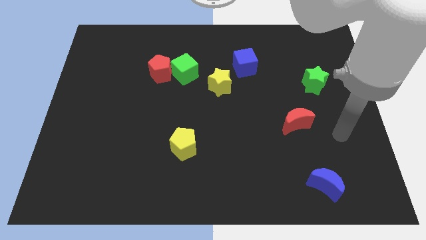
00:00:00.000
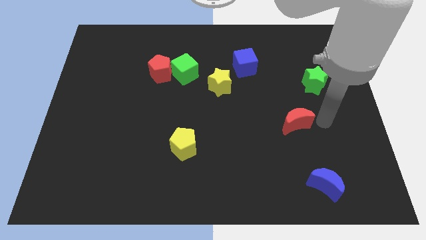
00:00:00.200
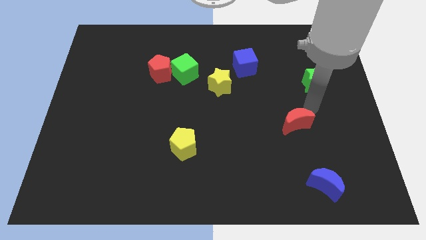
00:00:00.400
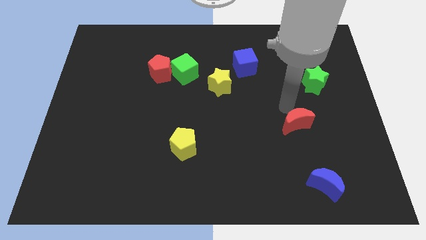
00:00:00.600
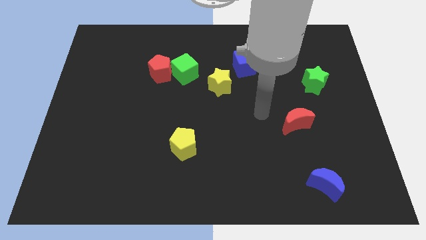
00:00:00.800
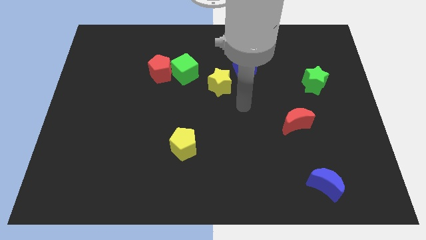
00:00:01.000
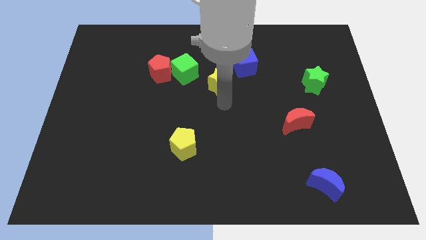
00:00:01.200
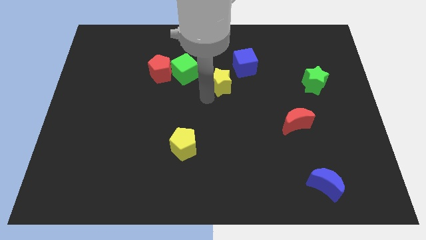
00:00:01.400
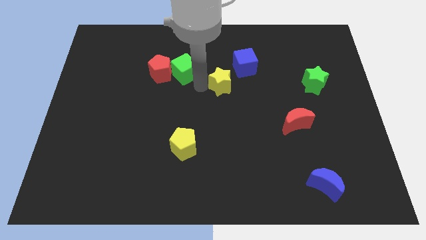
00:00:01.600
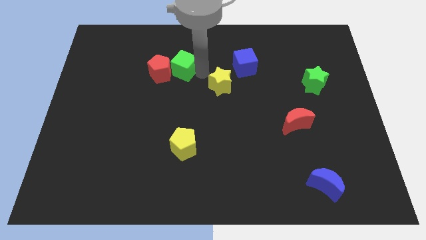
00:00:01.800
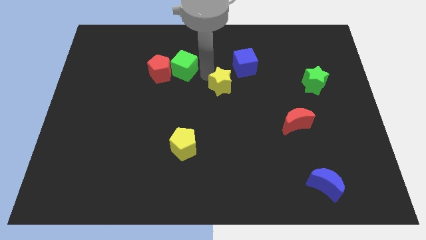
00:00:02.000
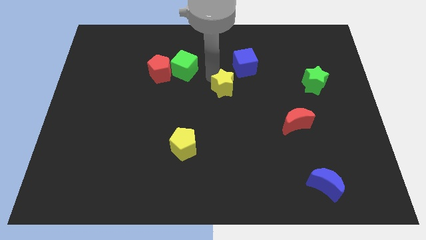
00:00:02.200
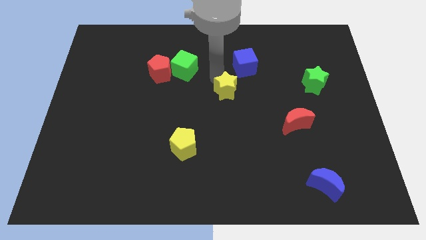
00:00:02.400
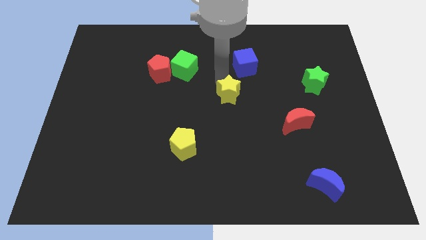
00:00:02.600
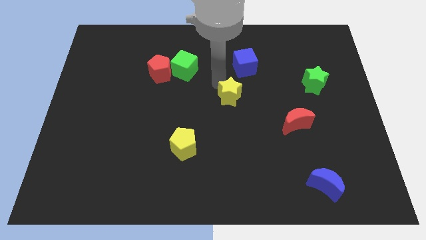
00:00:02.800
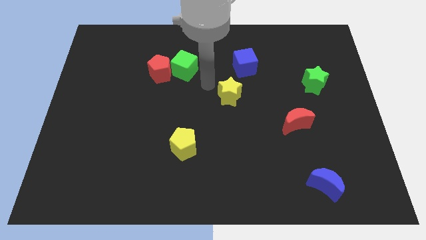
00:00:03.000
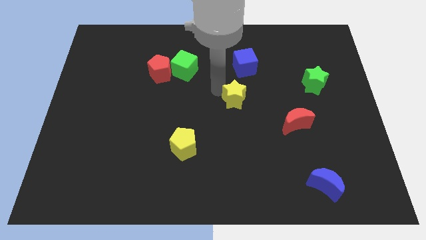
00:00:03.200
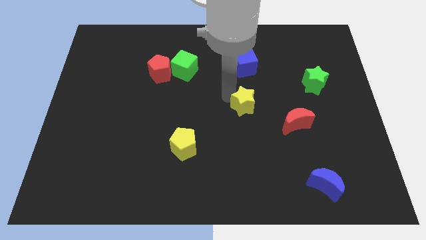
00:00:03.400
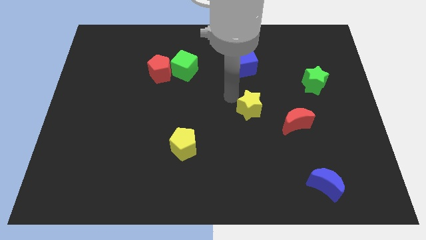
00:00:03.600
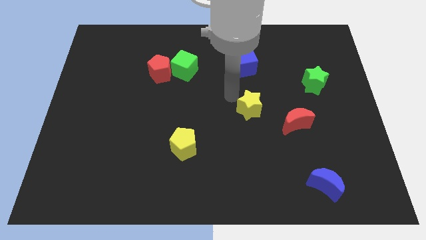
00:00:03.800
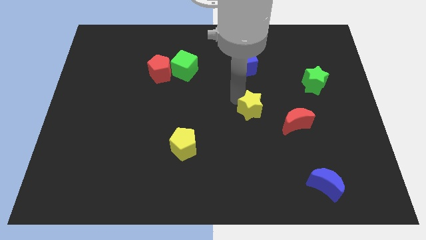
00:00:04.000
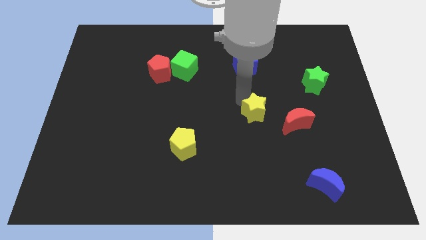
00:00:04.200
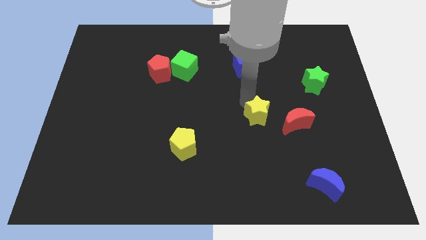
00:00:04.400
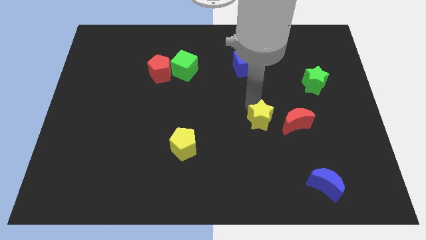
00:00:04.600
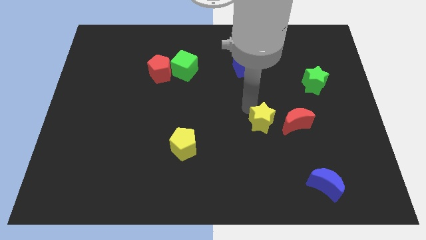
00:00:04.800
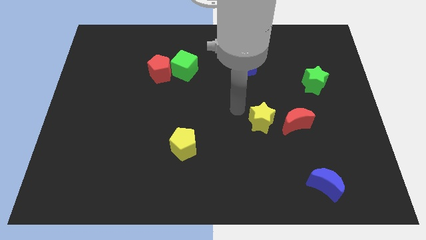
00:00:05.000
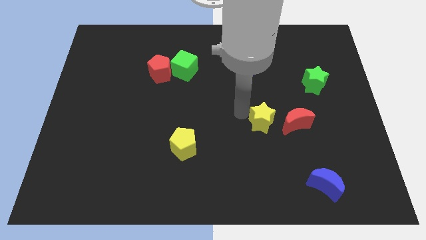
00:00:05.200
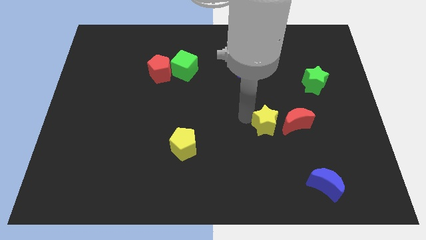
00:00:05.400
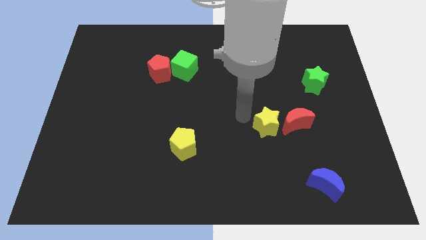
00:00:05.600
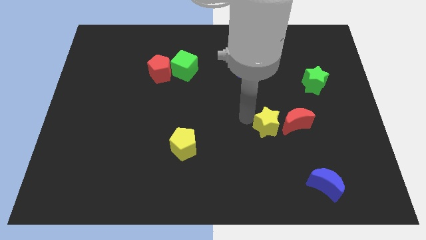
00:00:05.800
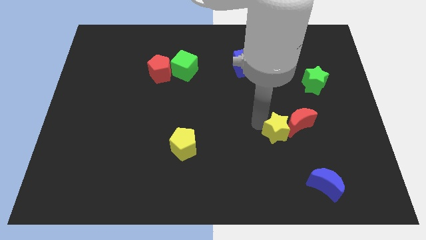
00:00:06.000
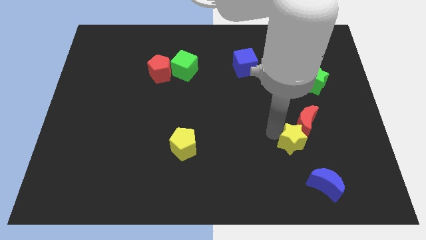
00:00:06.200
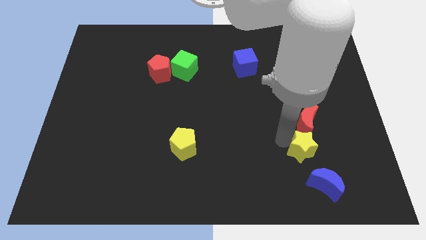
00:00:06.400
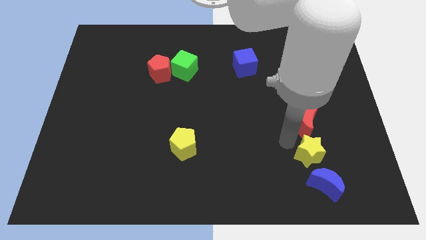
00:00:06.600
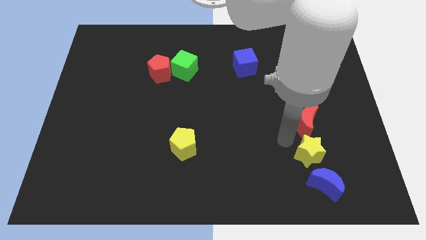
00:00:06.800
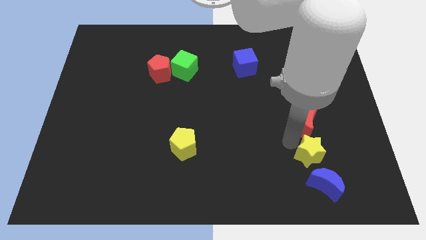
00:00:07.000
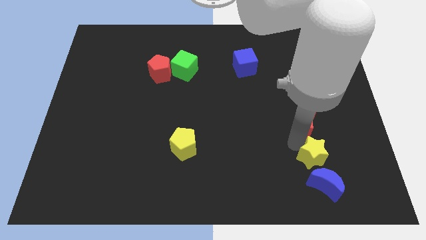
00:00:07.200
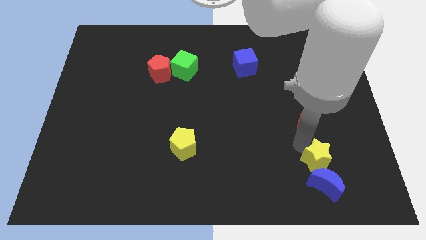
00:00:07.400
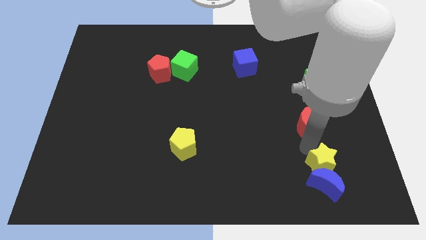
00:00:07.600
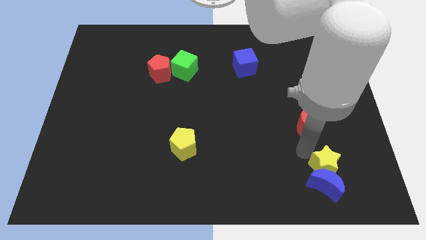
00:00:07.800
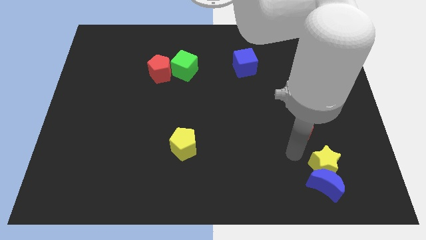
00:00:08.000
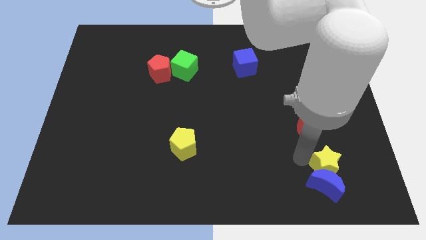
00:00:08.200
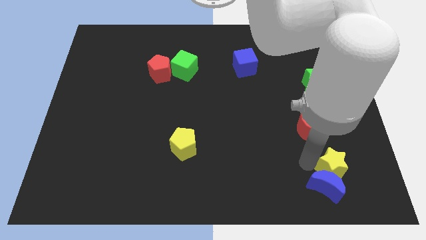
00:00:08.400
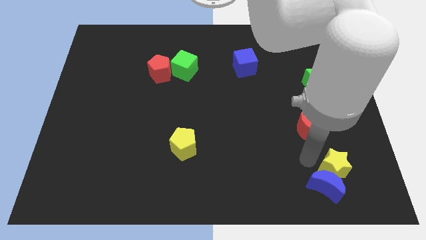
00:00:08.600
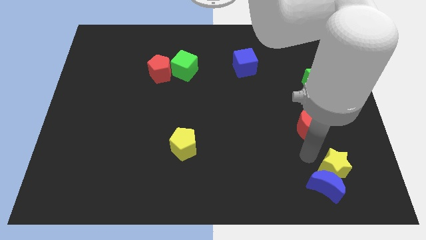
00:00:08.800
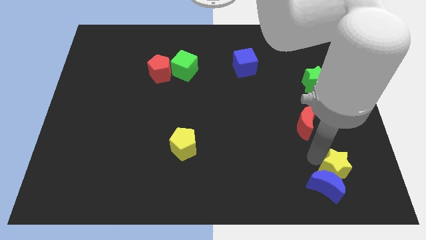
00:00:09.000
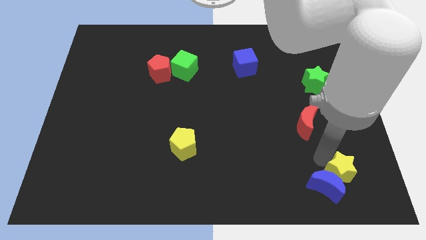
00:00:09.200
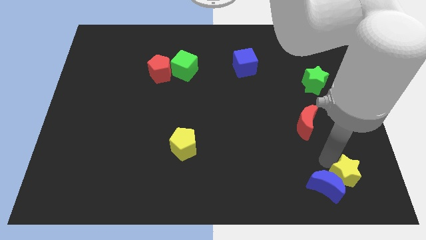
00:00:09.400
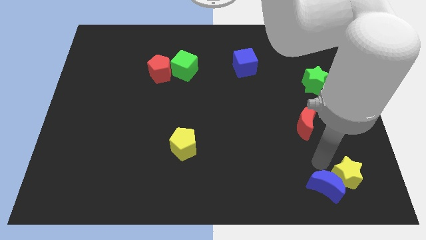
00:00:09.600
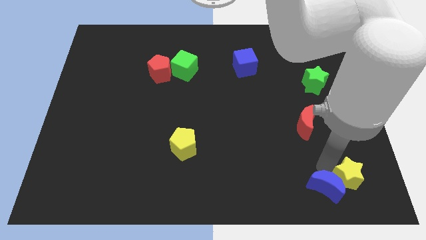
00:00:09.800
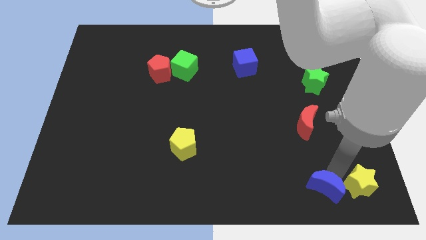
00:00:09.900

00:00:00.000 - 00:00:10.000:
put the yellow star to the lower right corner
